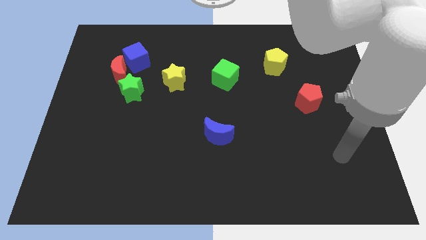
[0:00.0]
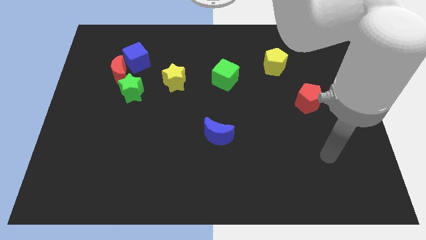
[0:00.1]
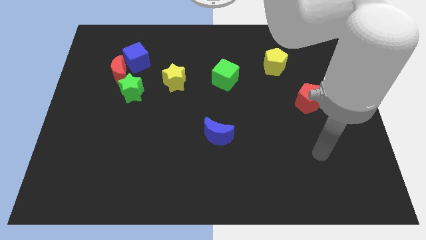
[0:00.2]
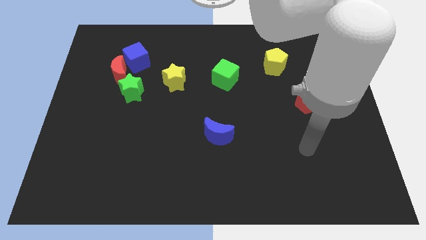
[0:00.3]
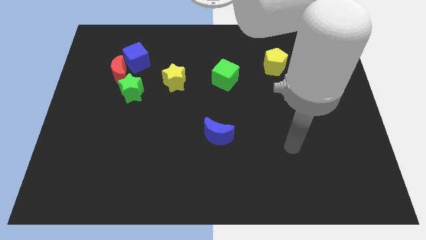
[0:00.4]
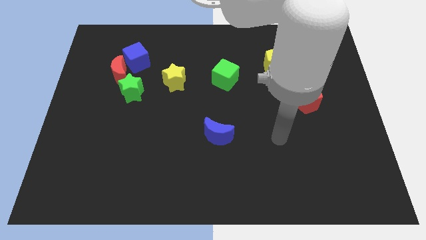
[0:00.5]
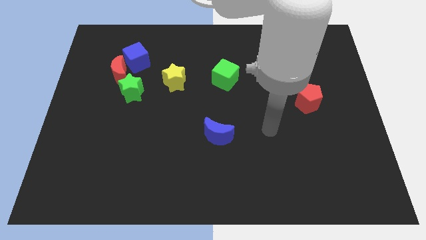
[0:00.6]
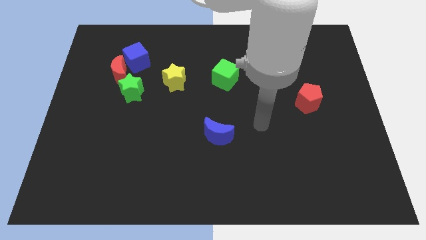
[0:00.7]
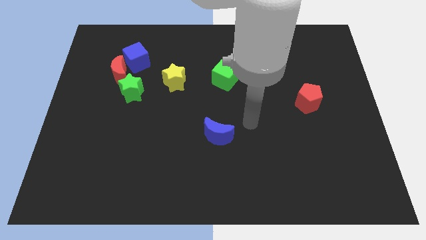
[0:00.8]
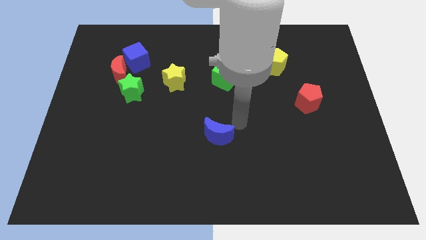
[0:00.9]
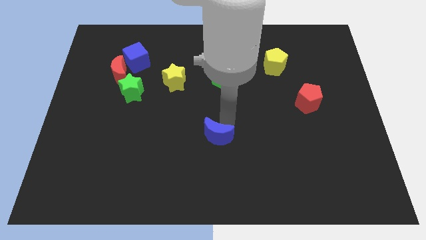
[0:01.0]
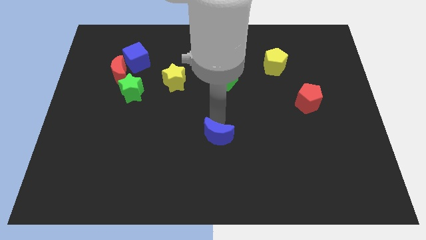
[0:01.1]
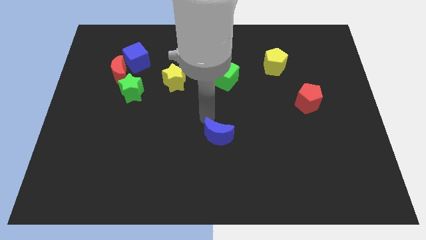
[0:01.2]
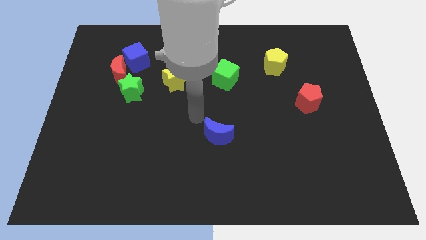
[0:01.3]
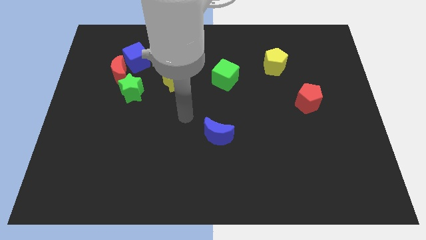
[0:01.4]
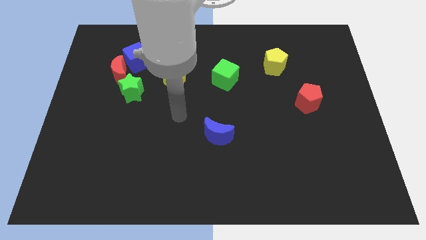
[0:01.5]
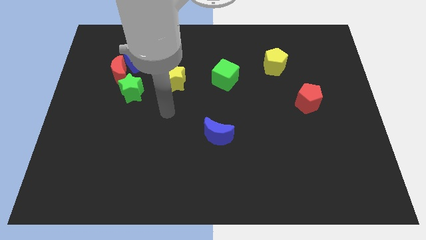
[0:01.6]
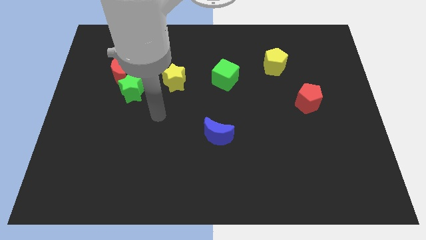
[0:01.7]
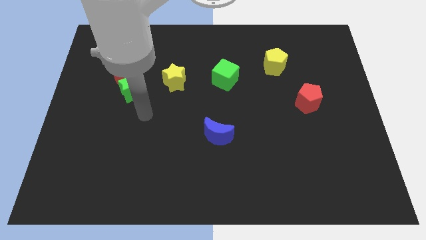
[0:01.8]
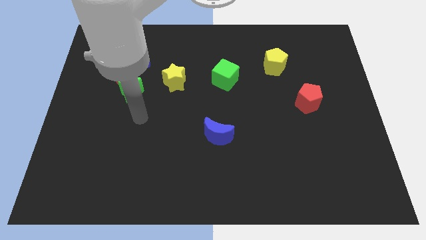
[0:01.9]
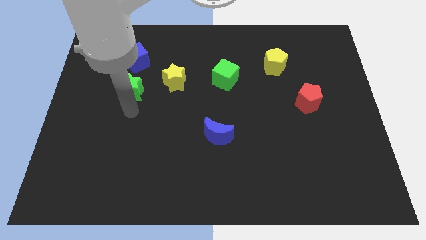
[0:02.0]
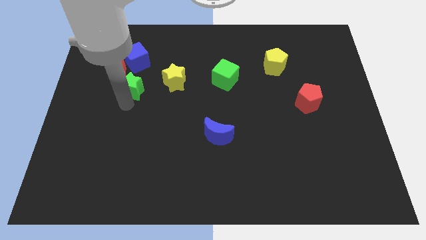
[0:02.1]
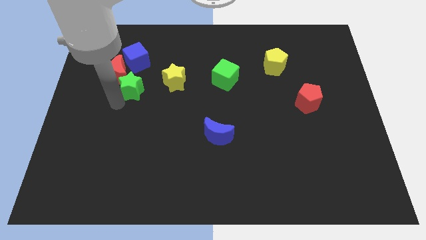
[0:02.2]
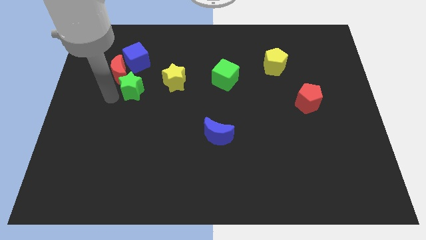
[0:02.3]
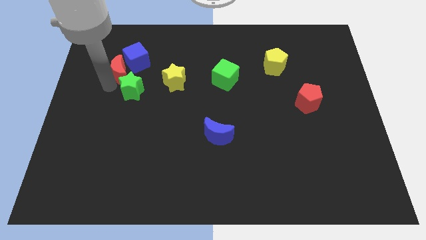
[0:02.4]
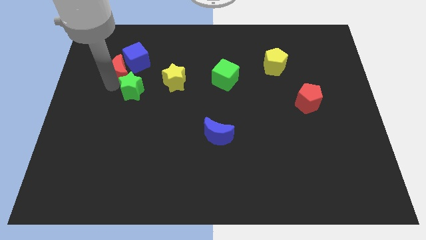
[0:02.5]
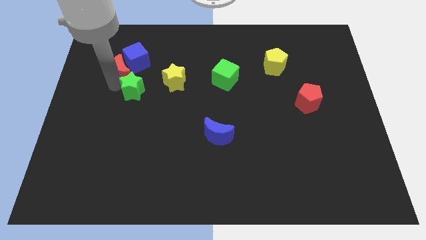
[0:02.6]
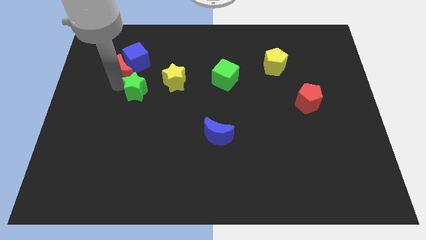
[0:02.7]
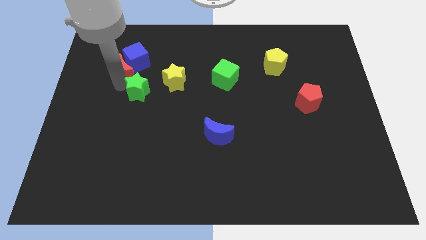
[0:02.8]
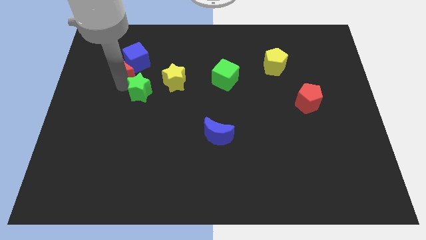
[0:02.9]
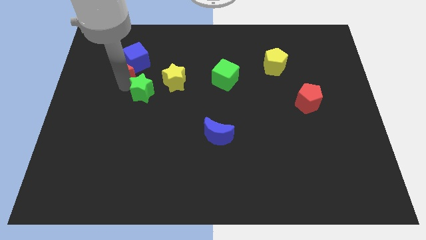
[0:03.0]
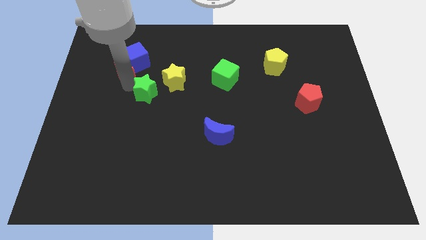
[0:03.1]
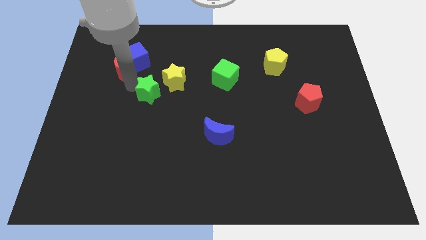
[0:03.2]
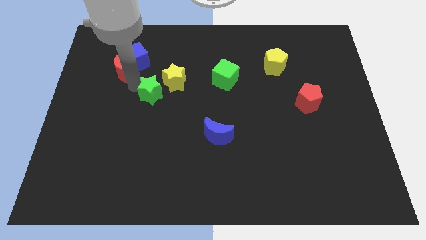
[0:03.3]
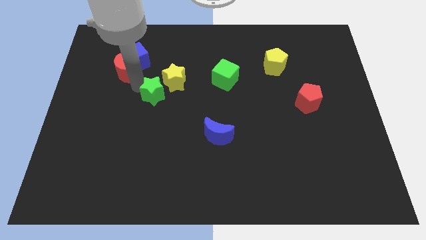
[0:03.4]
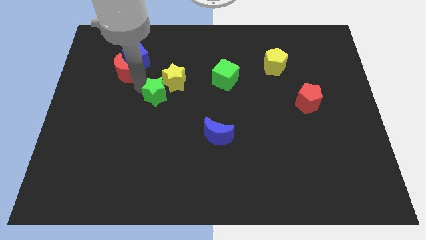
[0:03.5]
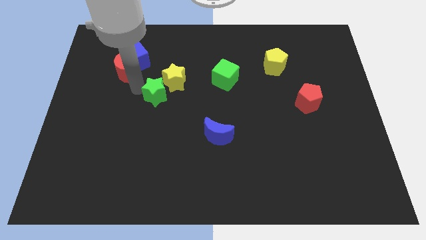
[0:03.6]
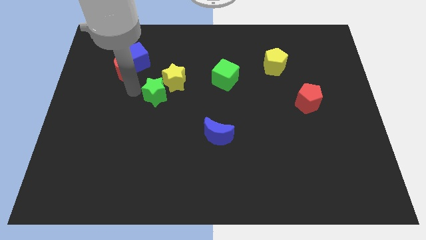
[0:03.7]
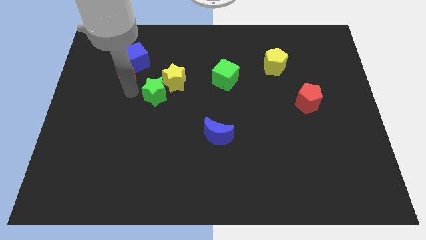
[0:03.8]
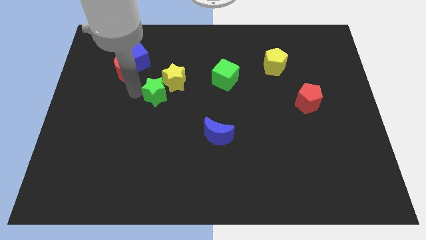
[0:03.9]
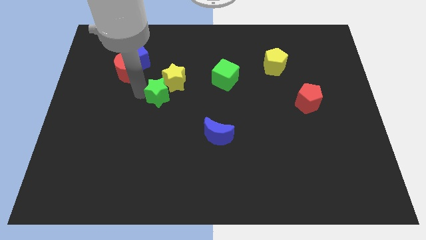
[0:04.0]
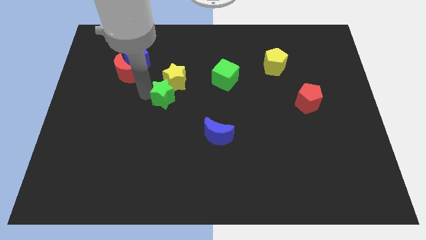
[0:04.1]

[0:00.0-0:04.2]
slide the green star a bit right

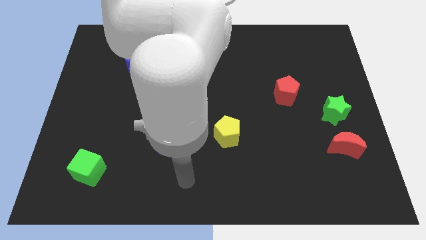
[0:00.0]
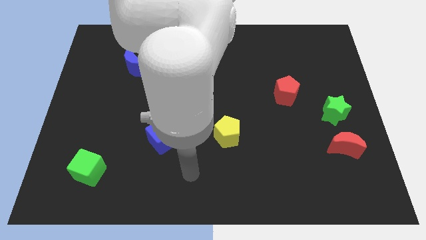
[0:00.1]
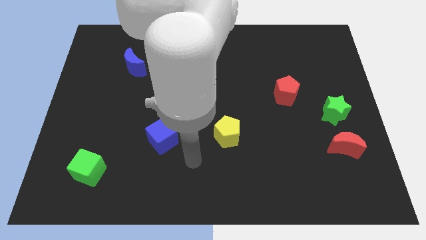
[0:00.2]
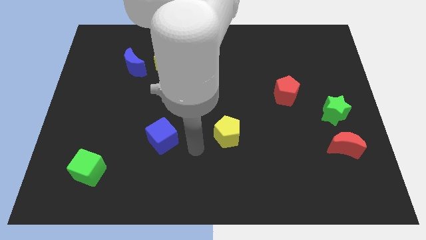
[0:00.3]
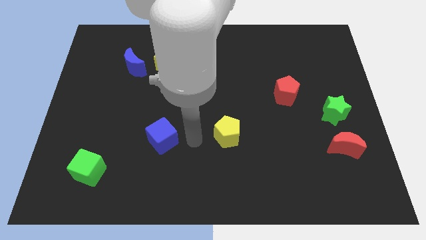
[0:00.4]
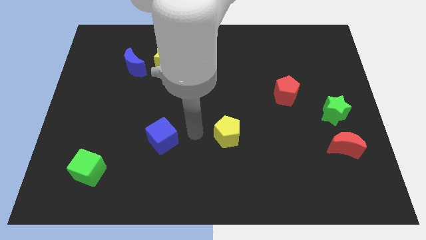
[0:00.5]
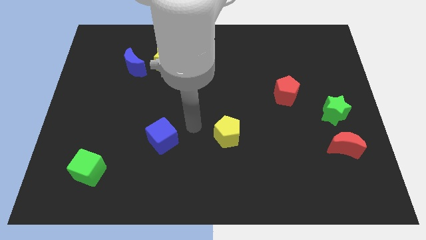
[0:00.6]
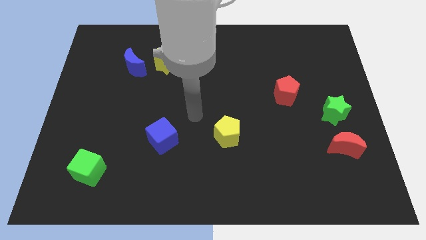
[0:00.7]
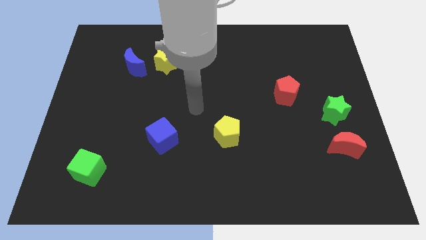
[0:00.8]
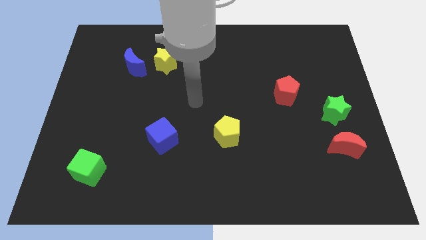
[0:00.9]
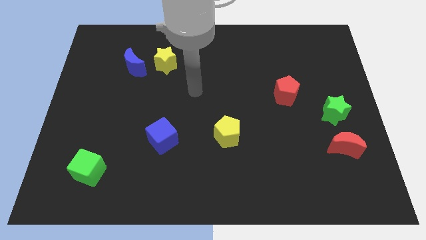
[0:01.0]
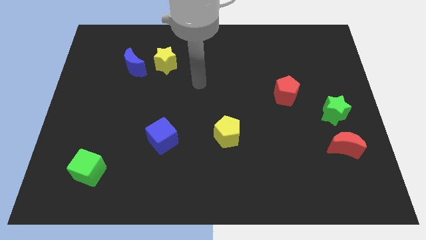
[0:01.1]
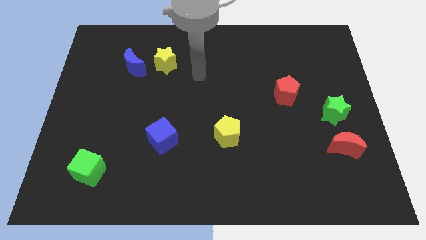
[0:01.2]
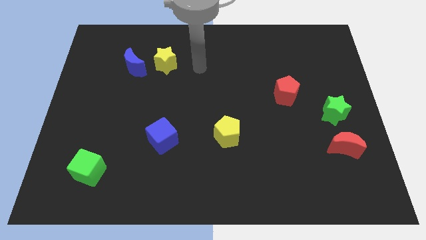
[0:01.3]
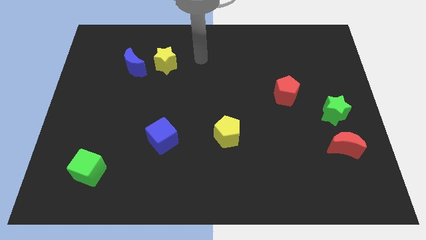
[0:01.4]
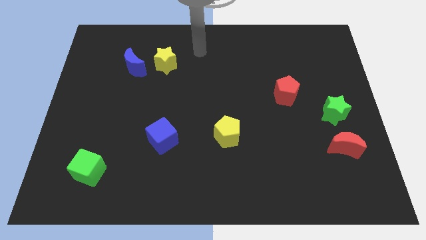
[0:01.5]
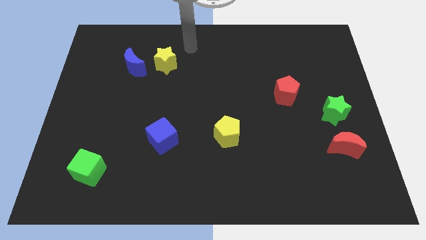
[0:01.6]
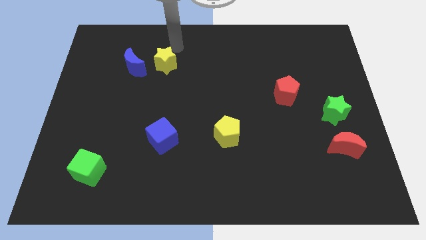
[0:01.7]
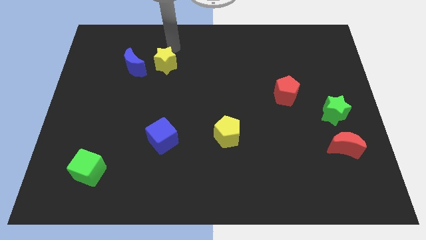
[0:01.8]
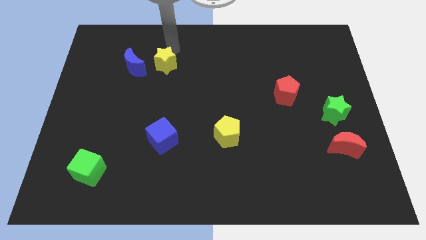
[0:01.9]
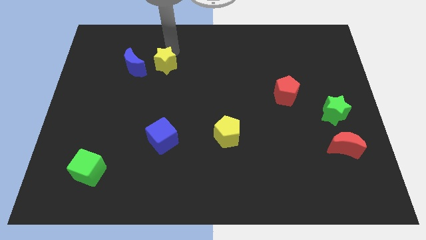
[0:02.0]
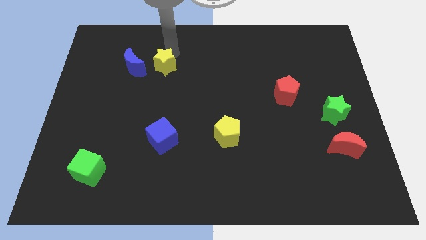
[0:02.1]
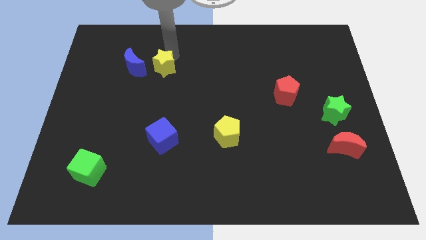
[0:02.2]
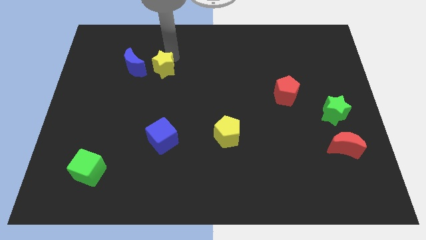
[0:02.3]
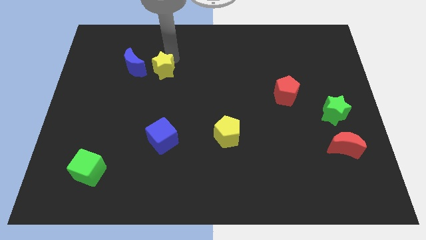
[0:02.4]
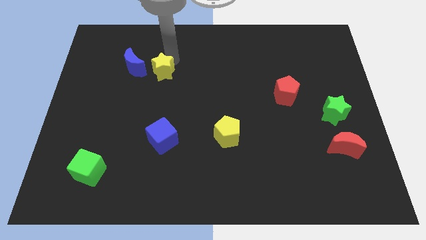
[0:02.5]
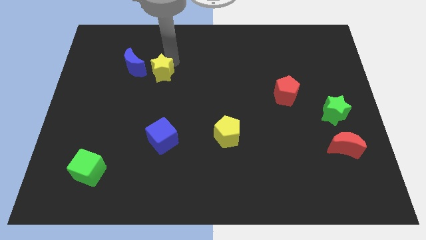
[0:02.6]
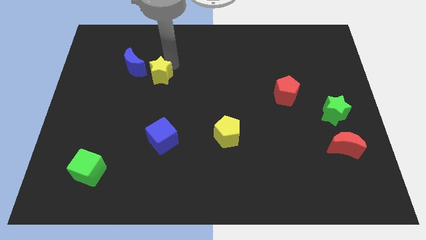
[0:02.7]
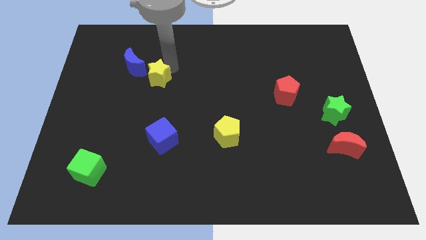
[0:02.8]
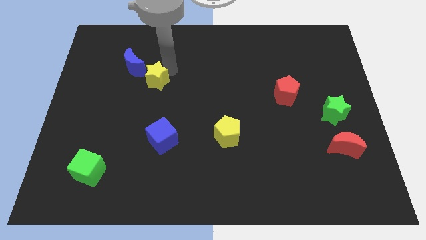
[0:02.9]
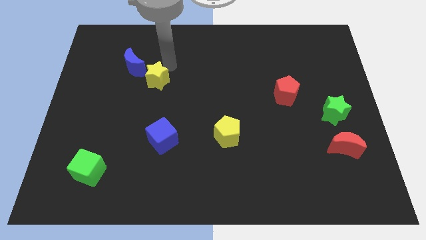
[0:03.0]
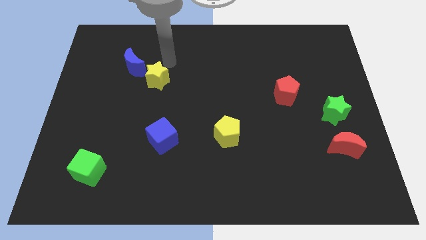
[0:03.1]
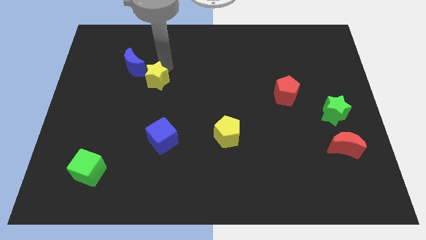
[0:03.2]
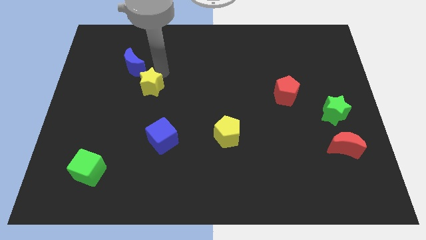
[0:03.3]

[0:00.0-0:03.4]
slide the yellow star downwards a little bit

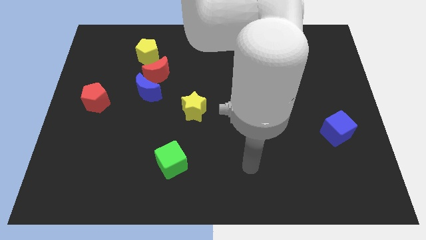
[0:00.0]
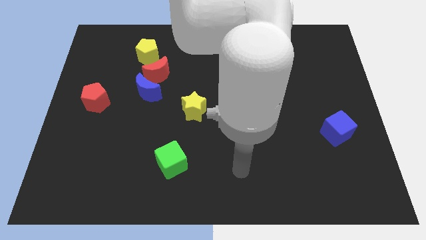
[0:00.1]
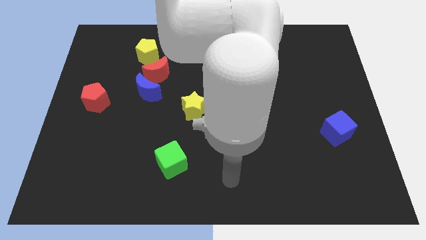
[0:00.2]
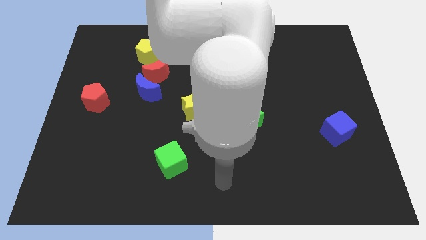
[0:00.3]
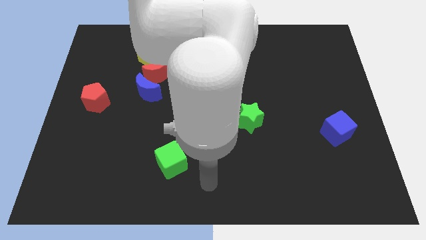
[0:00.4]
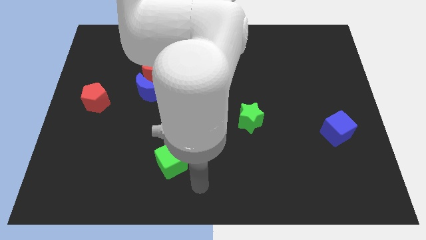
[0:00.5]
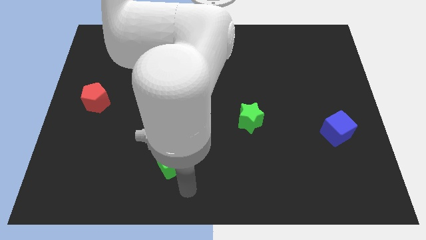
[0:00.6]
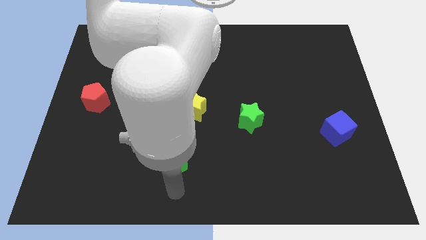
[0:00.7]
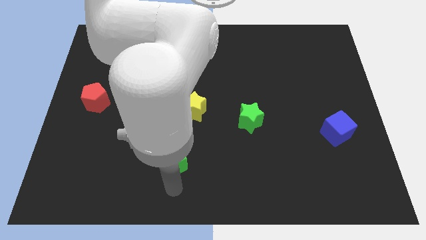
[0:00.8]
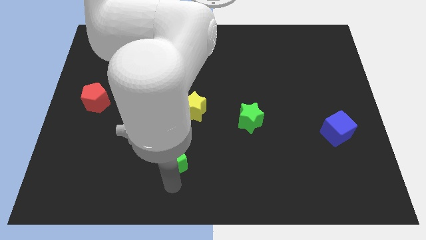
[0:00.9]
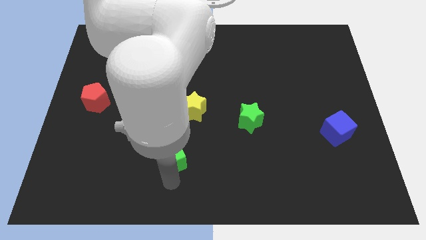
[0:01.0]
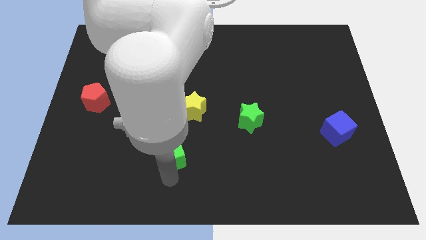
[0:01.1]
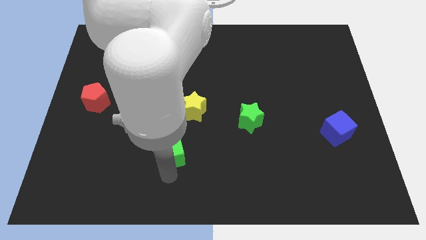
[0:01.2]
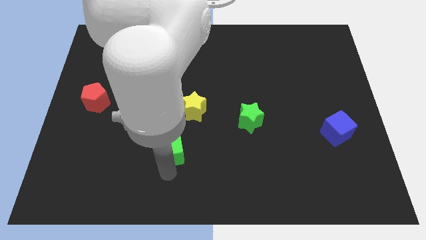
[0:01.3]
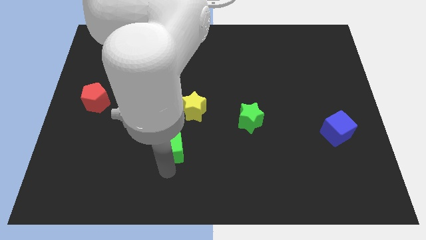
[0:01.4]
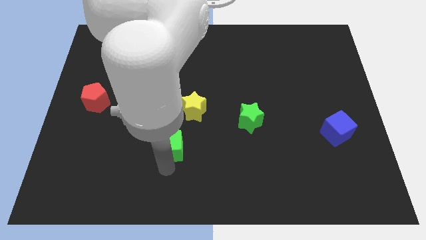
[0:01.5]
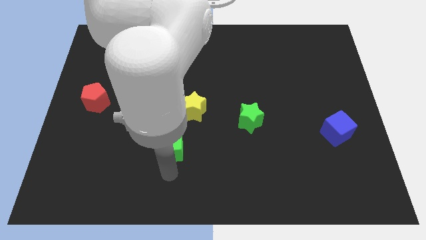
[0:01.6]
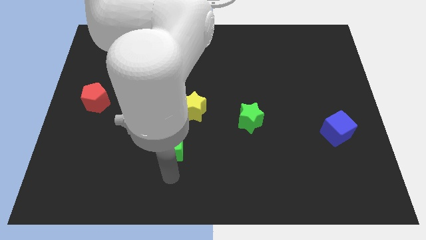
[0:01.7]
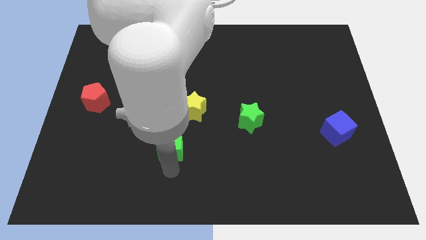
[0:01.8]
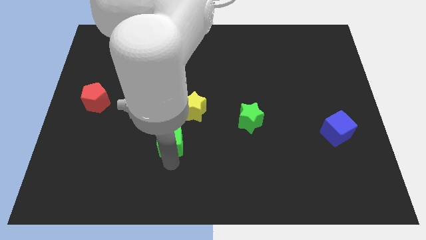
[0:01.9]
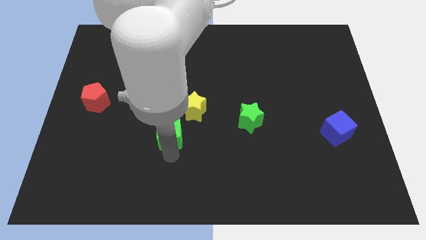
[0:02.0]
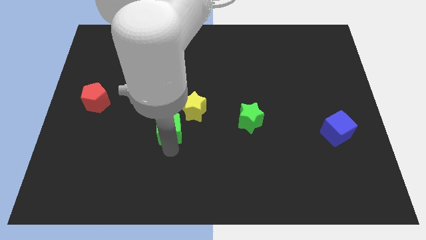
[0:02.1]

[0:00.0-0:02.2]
move the green cube slightly up
